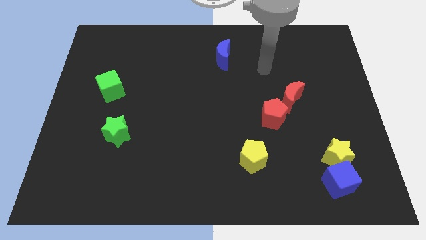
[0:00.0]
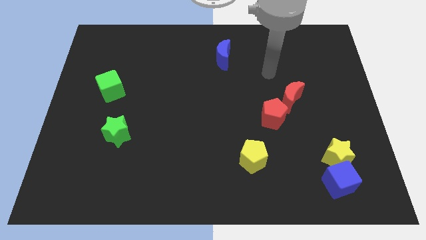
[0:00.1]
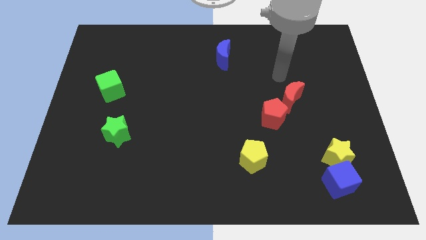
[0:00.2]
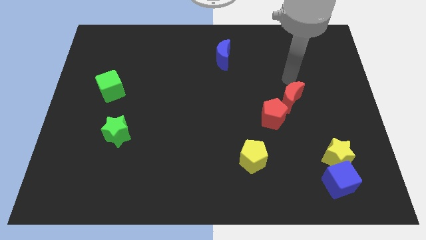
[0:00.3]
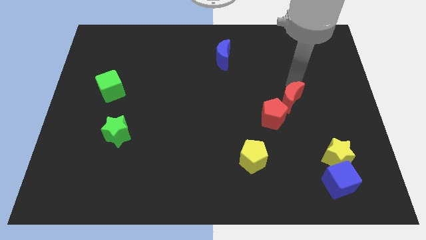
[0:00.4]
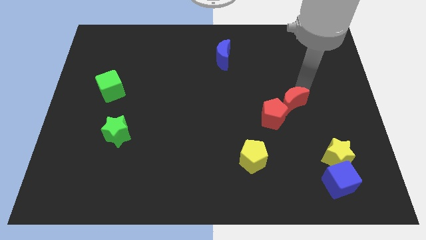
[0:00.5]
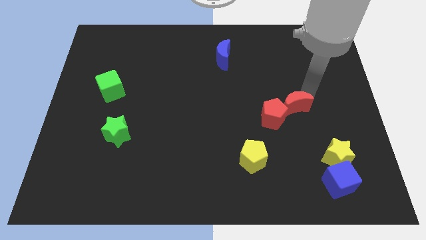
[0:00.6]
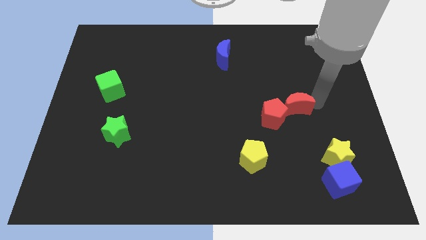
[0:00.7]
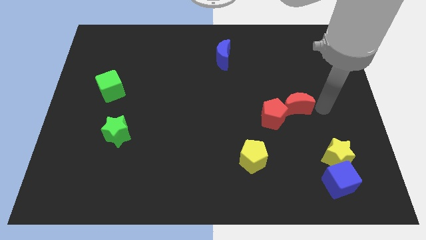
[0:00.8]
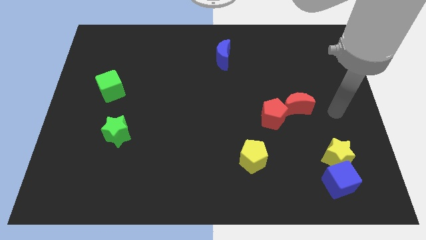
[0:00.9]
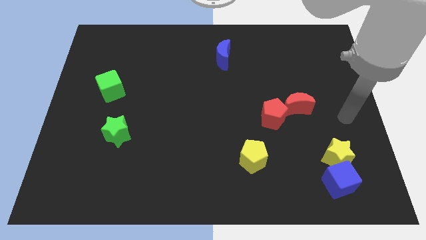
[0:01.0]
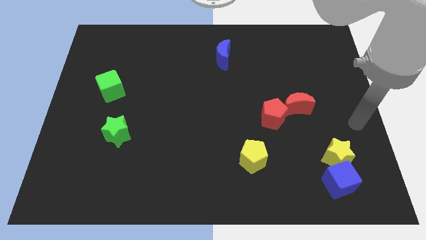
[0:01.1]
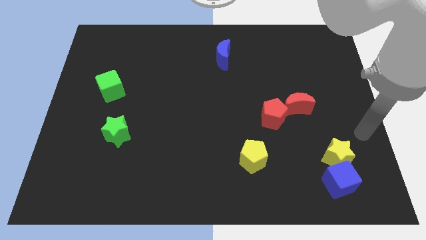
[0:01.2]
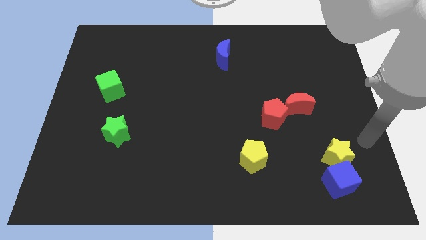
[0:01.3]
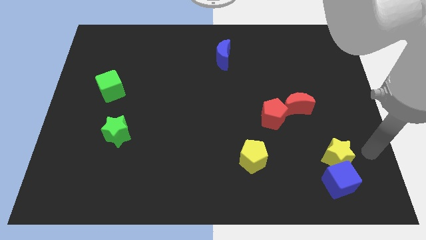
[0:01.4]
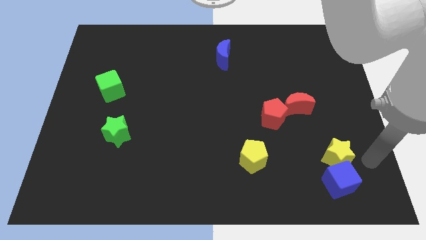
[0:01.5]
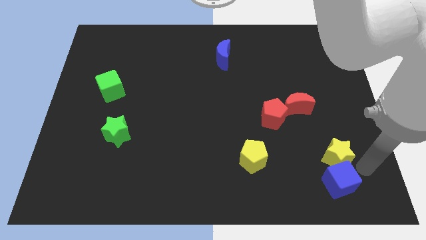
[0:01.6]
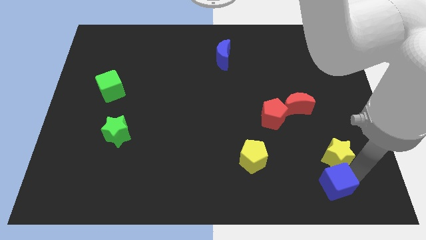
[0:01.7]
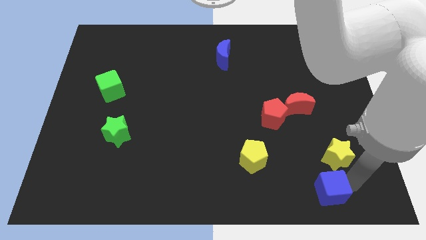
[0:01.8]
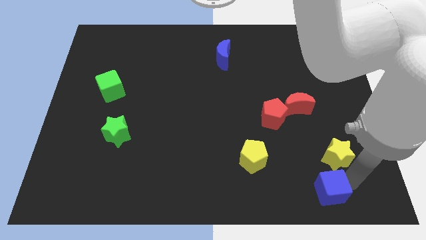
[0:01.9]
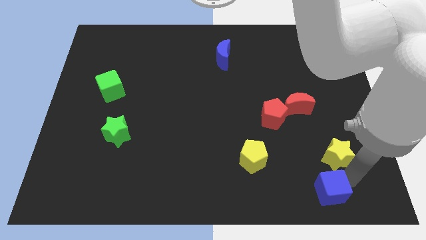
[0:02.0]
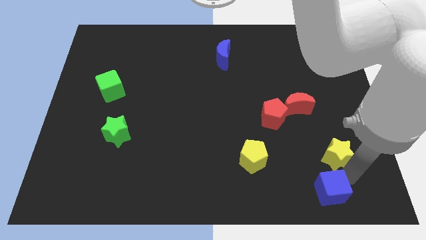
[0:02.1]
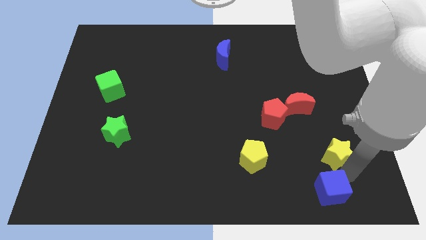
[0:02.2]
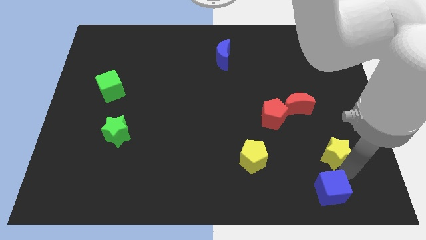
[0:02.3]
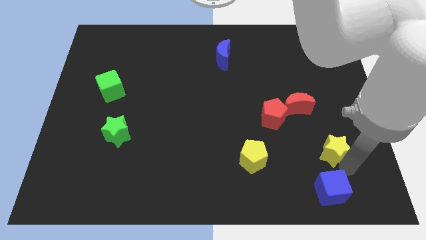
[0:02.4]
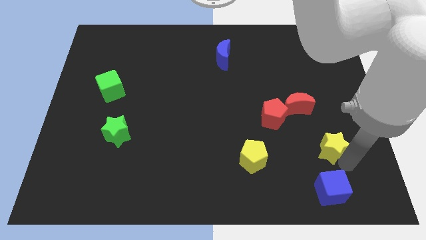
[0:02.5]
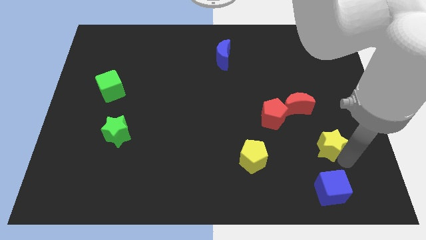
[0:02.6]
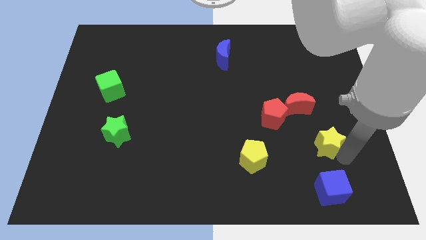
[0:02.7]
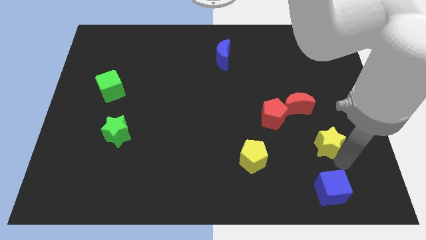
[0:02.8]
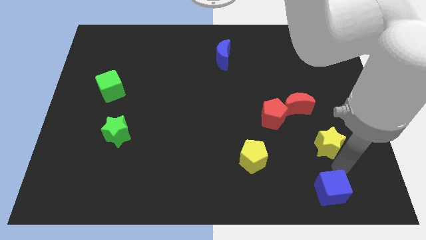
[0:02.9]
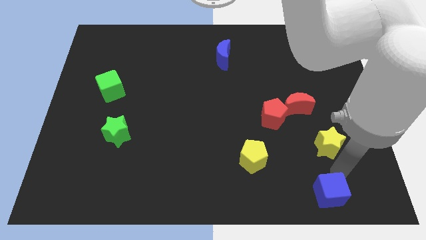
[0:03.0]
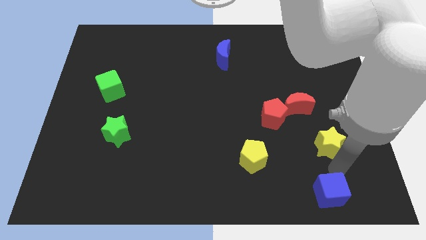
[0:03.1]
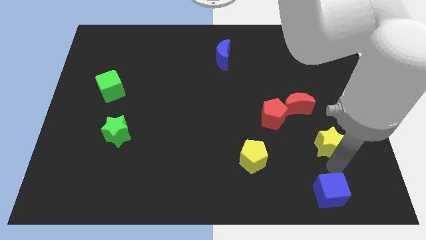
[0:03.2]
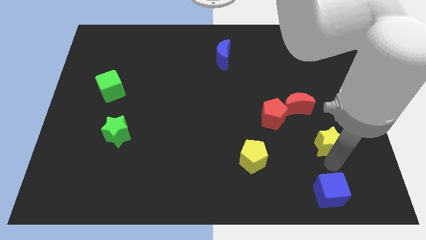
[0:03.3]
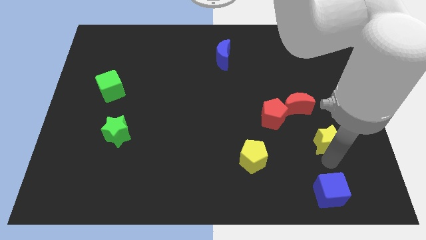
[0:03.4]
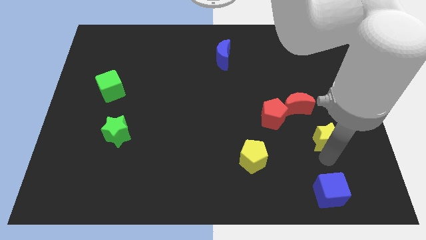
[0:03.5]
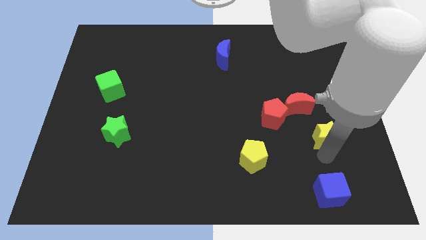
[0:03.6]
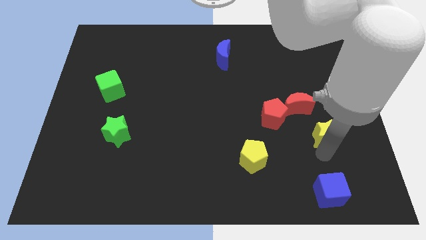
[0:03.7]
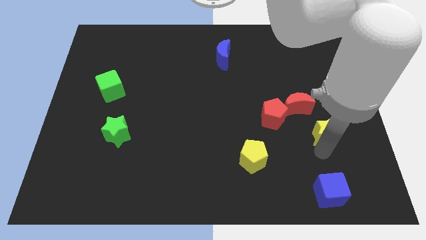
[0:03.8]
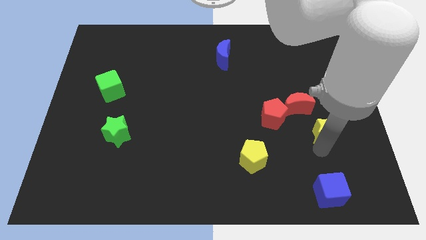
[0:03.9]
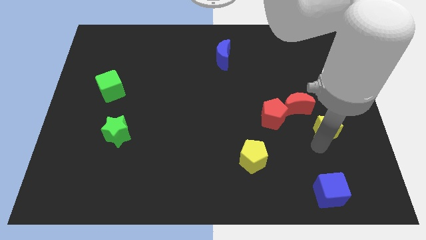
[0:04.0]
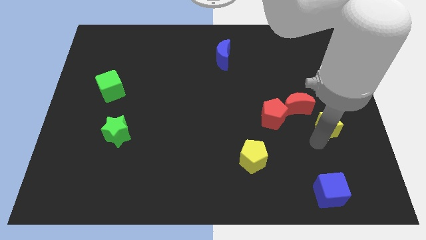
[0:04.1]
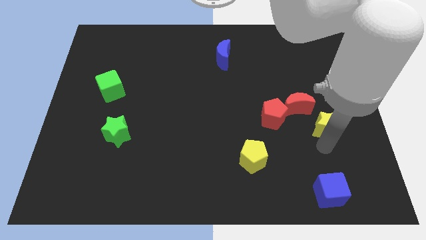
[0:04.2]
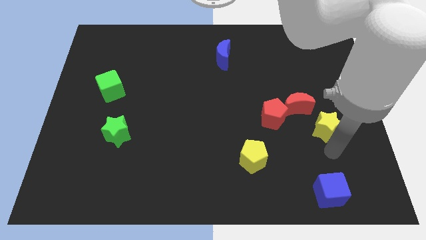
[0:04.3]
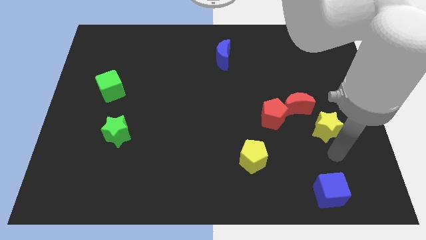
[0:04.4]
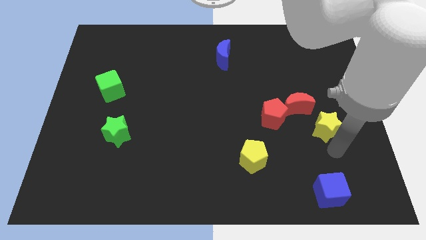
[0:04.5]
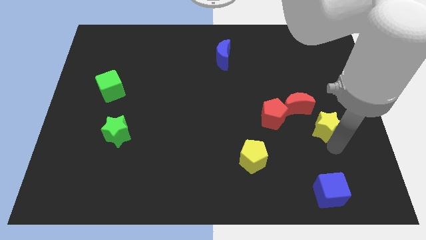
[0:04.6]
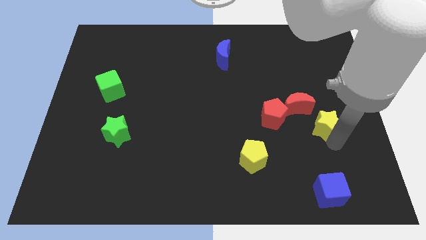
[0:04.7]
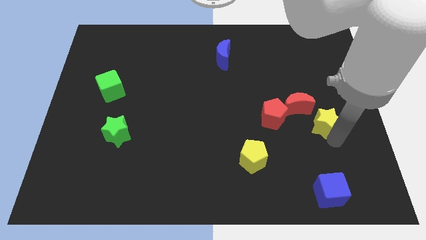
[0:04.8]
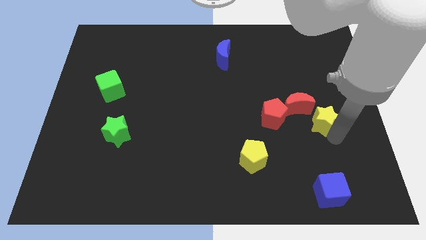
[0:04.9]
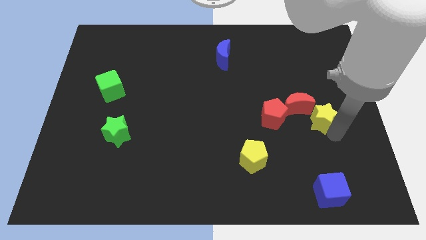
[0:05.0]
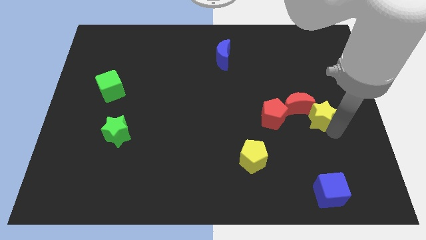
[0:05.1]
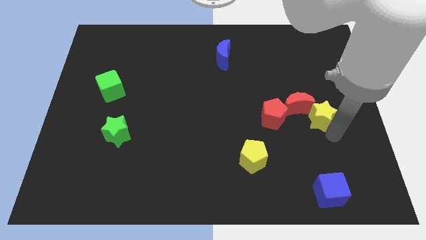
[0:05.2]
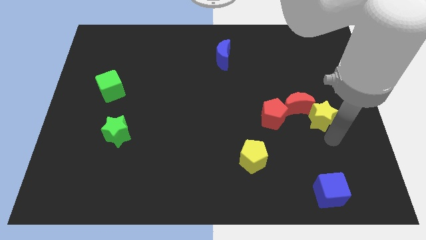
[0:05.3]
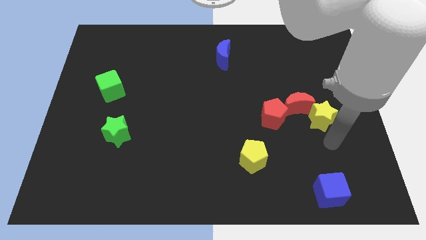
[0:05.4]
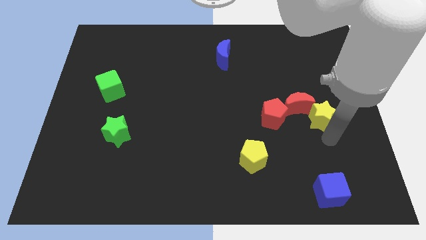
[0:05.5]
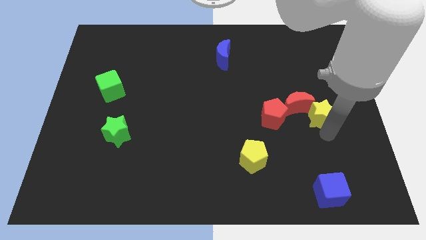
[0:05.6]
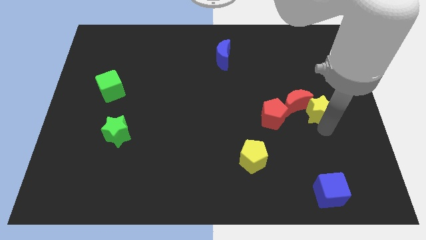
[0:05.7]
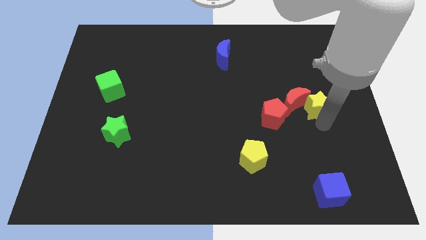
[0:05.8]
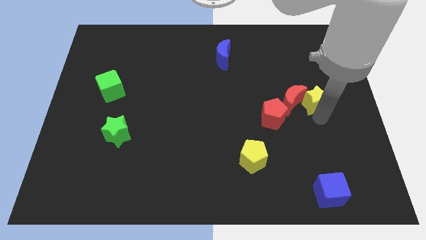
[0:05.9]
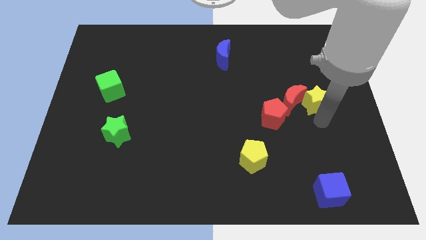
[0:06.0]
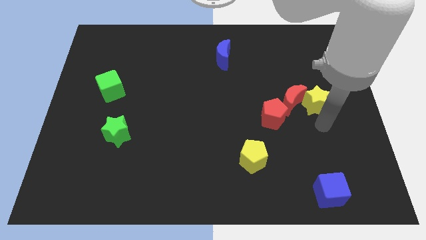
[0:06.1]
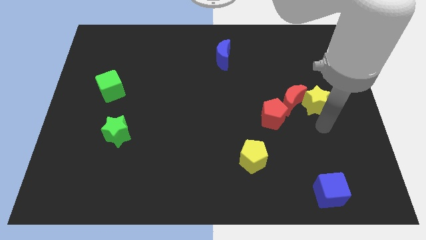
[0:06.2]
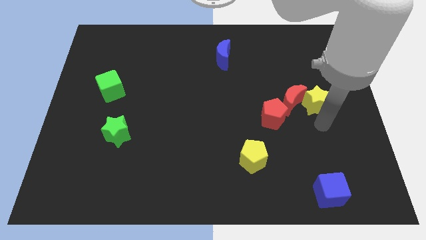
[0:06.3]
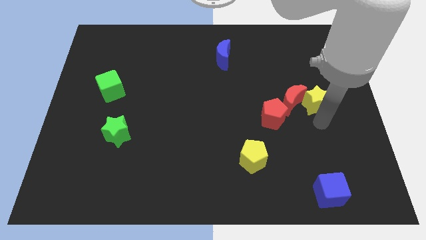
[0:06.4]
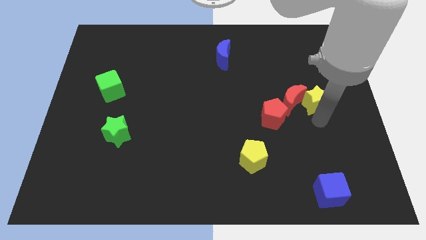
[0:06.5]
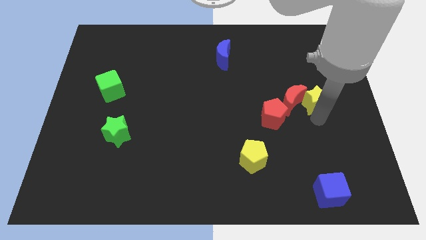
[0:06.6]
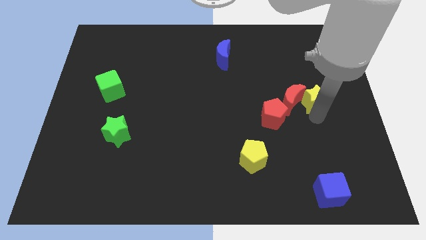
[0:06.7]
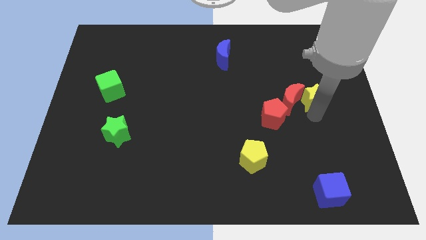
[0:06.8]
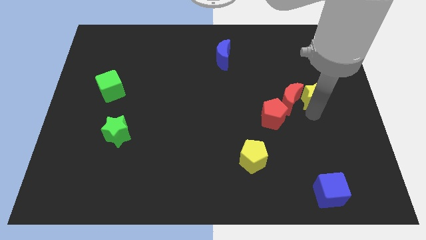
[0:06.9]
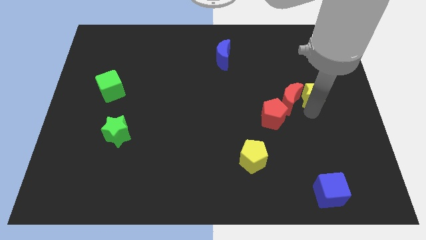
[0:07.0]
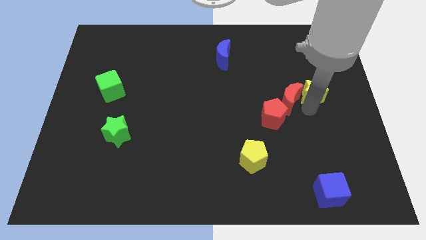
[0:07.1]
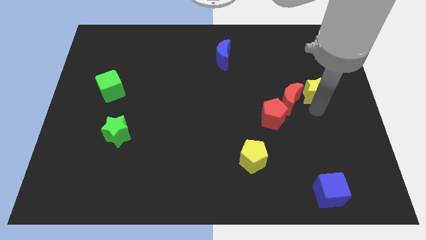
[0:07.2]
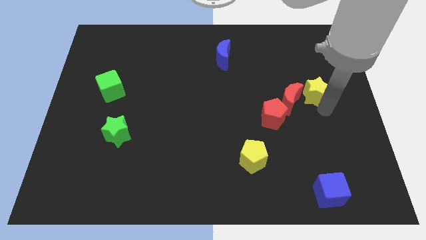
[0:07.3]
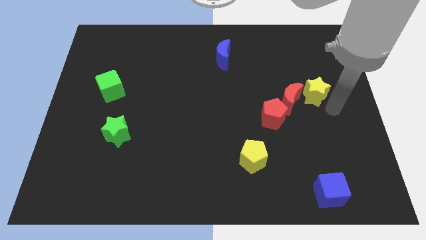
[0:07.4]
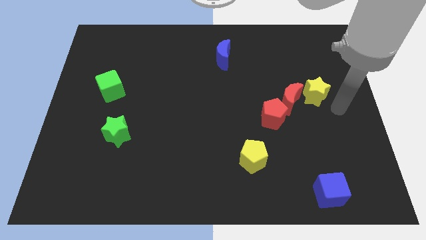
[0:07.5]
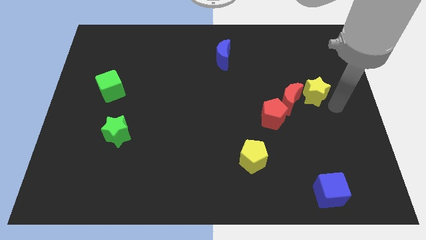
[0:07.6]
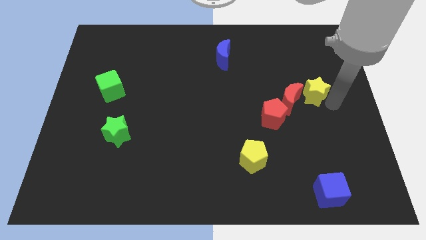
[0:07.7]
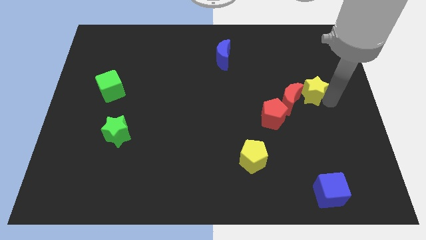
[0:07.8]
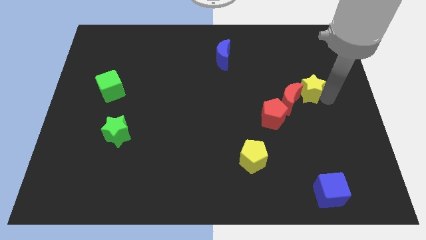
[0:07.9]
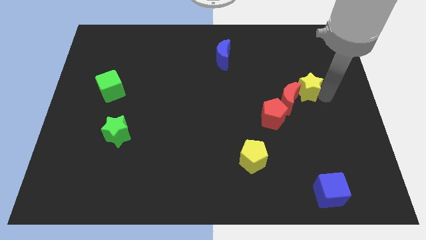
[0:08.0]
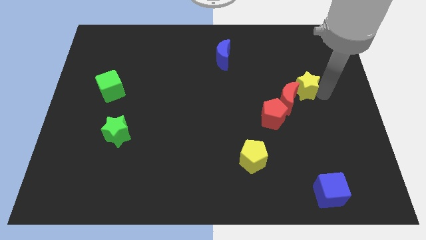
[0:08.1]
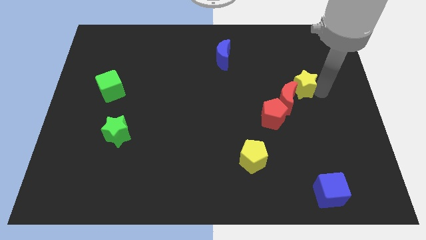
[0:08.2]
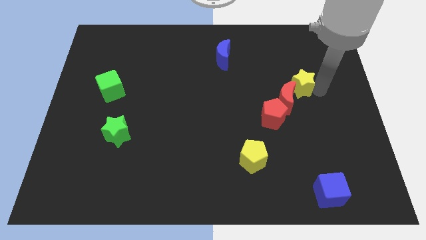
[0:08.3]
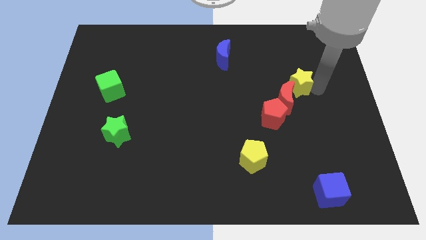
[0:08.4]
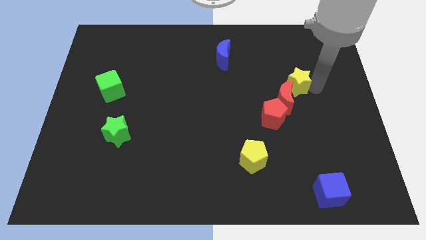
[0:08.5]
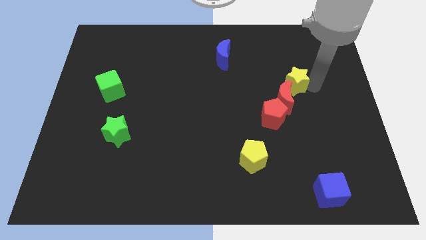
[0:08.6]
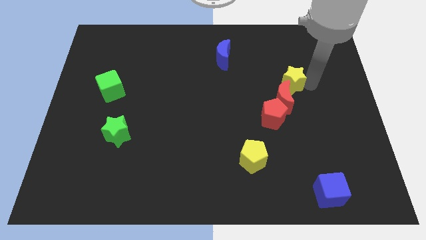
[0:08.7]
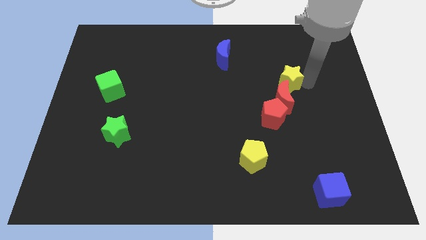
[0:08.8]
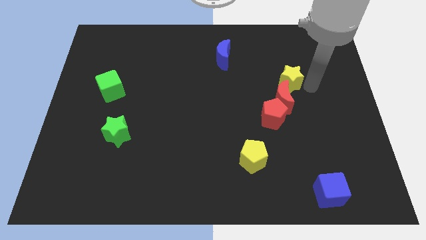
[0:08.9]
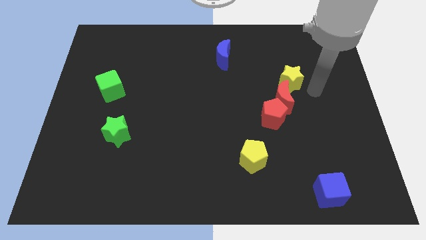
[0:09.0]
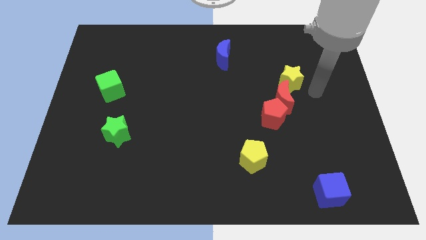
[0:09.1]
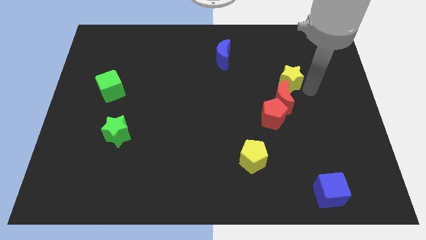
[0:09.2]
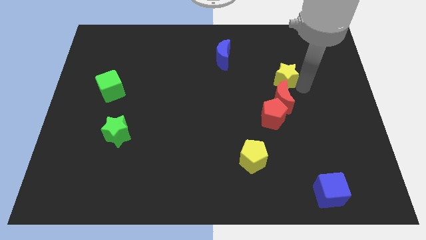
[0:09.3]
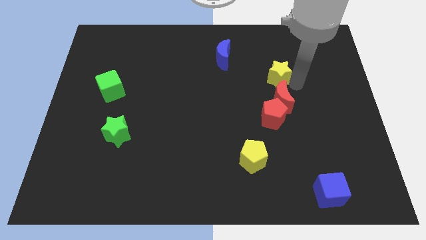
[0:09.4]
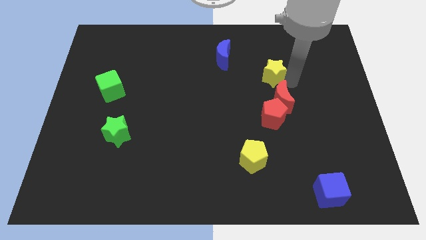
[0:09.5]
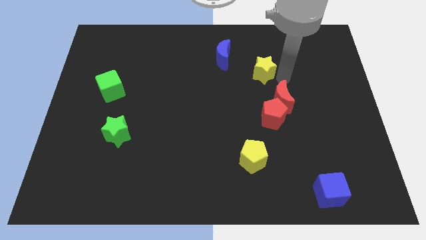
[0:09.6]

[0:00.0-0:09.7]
push the yellow star to the bottom right side of the blue moon
